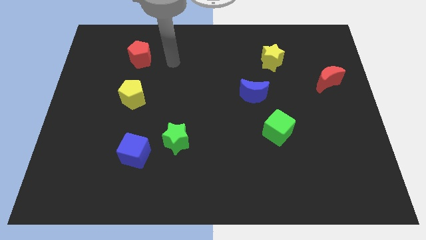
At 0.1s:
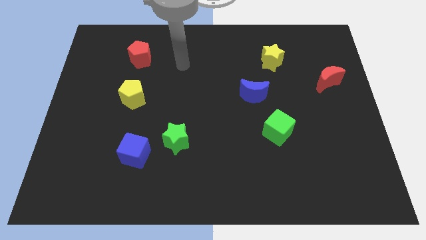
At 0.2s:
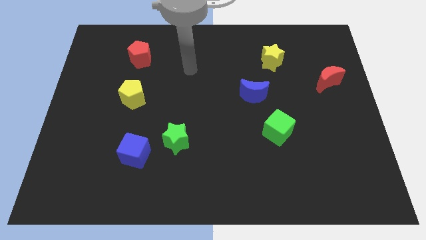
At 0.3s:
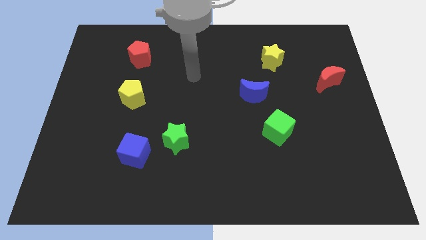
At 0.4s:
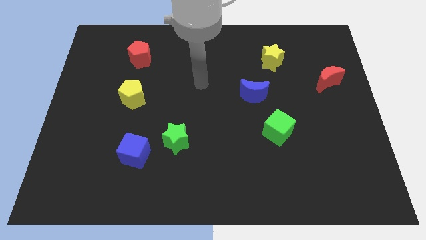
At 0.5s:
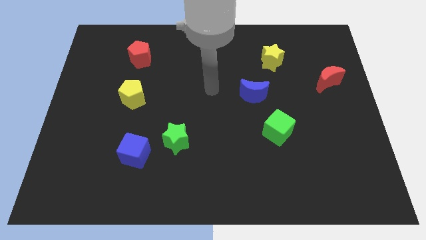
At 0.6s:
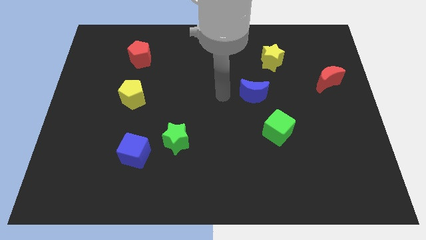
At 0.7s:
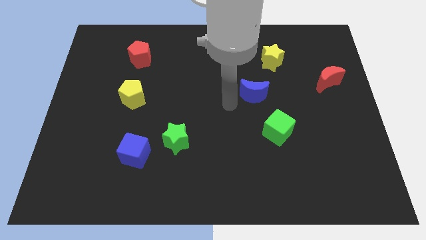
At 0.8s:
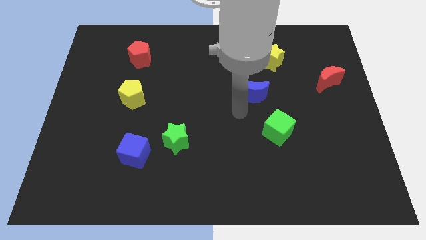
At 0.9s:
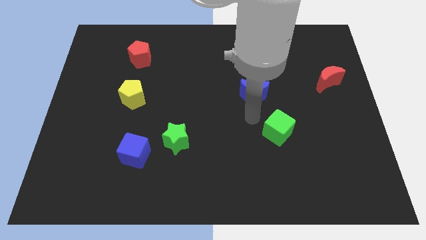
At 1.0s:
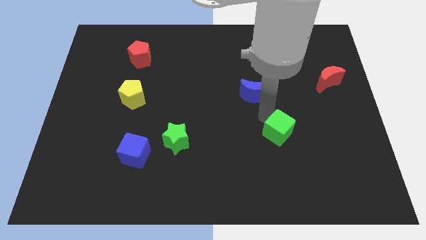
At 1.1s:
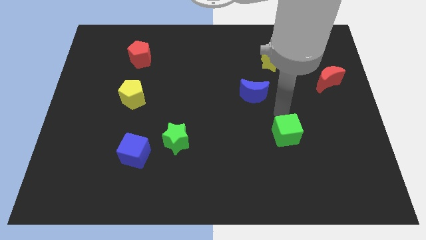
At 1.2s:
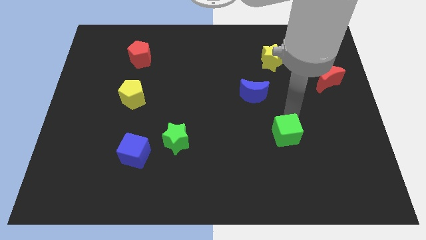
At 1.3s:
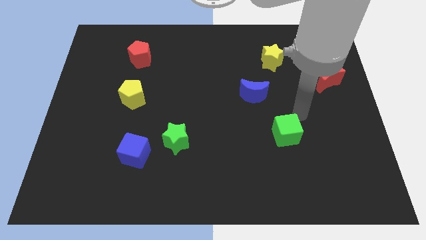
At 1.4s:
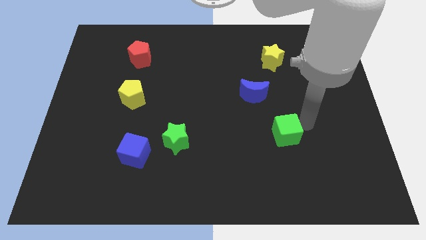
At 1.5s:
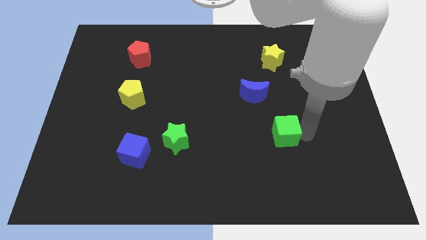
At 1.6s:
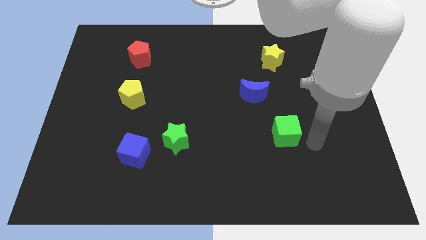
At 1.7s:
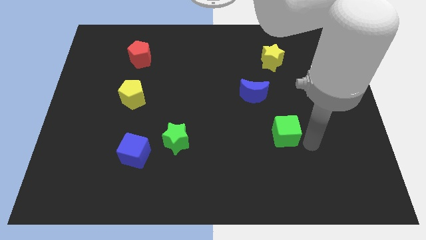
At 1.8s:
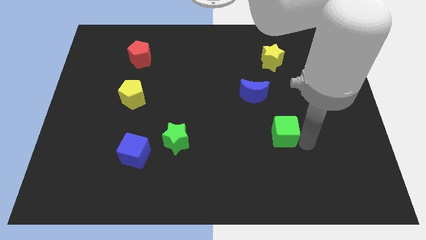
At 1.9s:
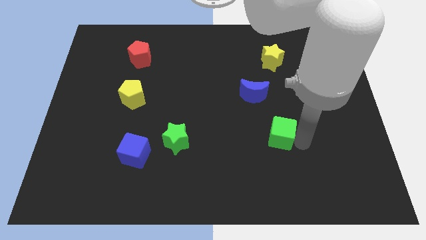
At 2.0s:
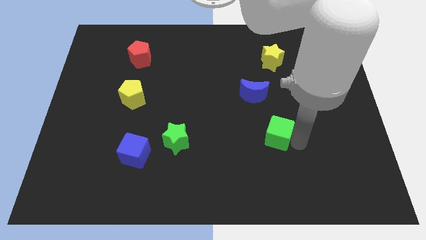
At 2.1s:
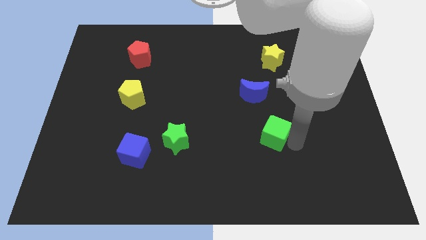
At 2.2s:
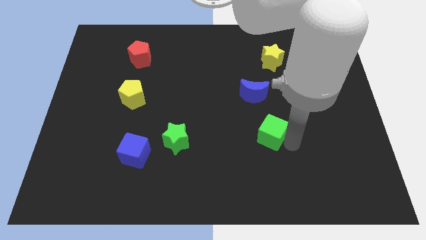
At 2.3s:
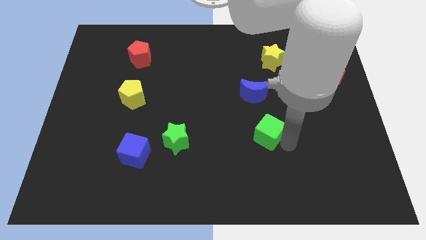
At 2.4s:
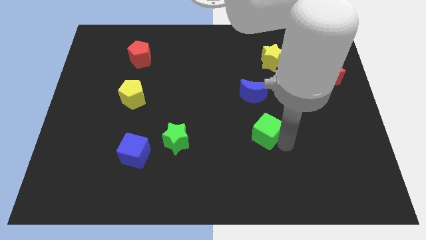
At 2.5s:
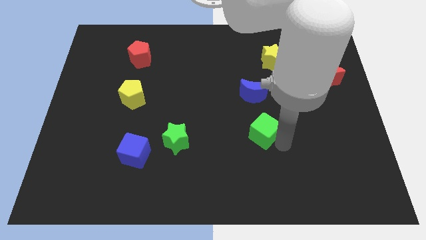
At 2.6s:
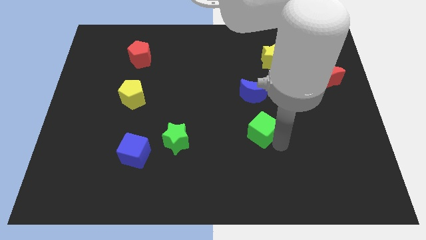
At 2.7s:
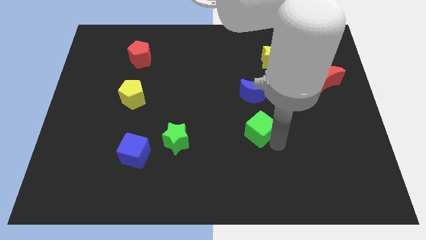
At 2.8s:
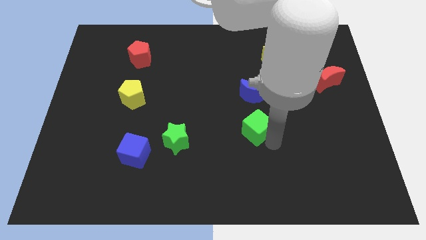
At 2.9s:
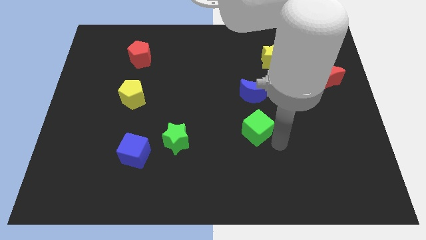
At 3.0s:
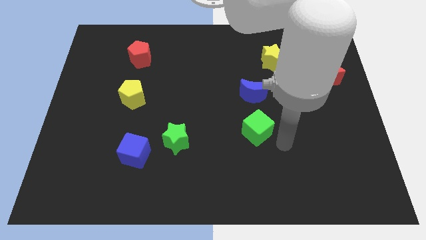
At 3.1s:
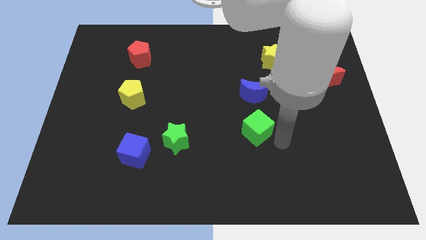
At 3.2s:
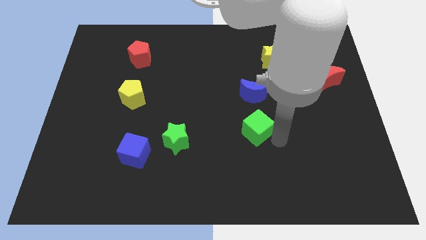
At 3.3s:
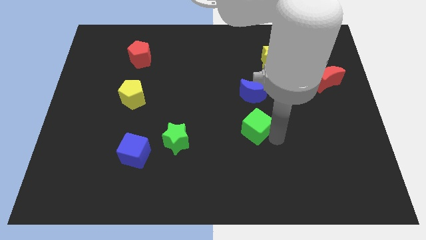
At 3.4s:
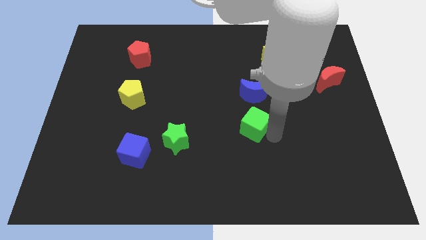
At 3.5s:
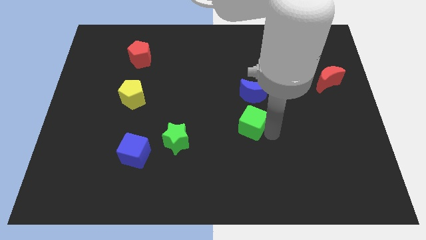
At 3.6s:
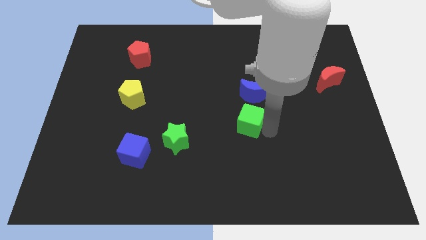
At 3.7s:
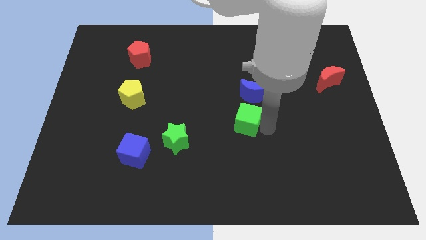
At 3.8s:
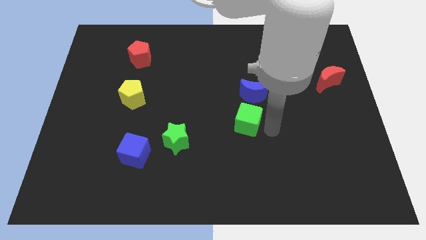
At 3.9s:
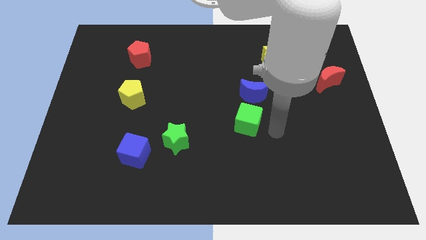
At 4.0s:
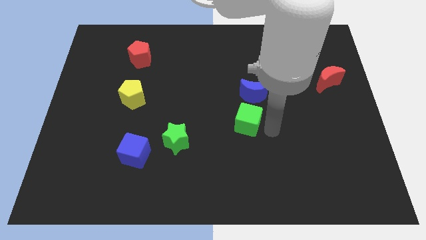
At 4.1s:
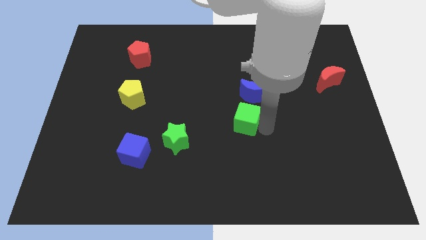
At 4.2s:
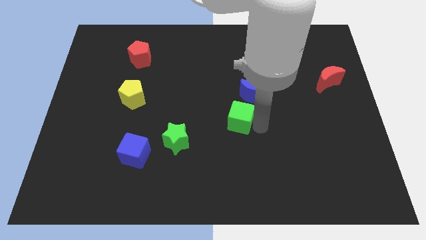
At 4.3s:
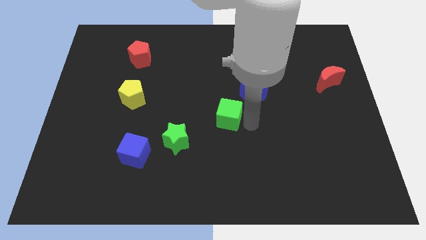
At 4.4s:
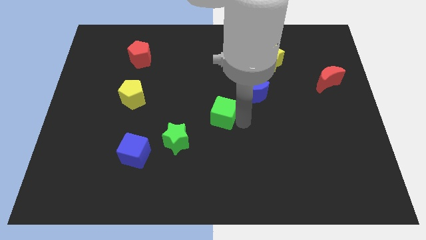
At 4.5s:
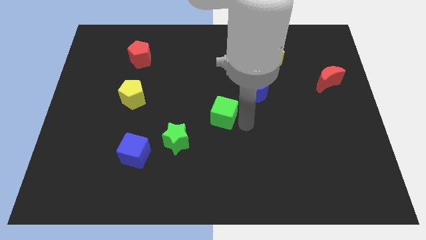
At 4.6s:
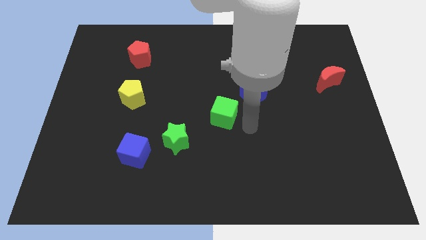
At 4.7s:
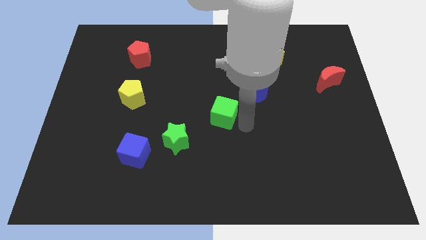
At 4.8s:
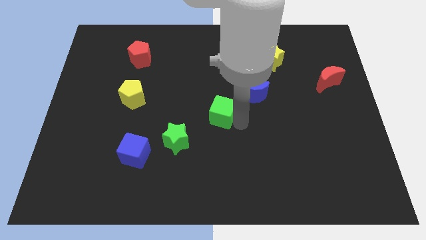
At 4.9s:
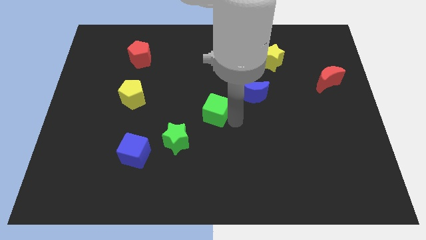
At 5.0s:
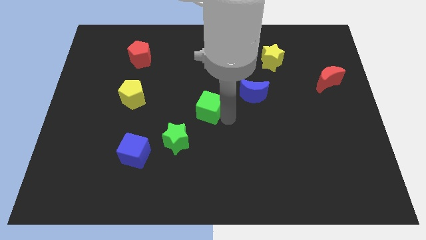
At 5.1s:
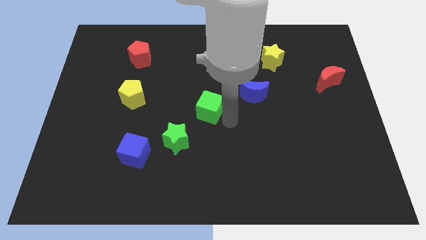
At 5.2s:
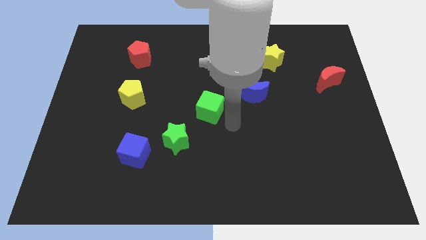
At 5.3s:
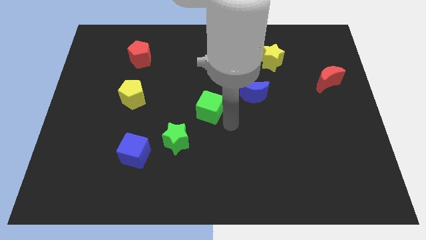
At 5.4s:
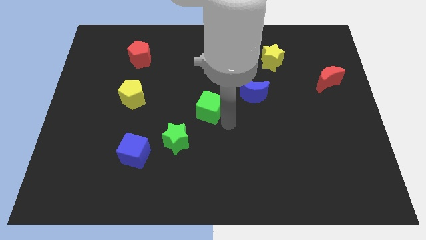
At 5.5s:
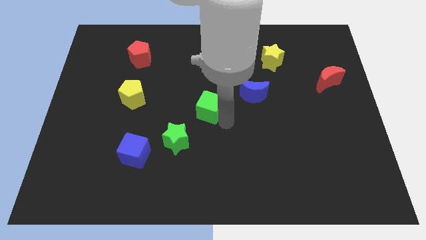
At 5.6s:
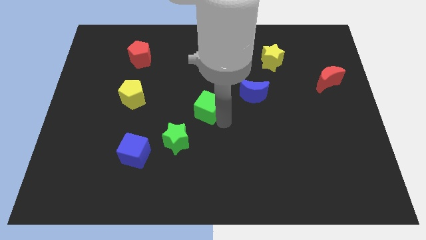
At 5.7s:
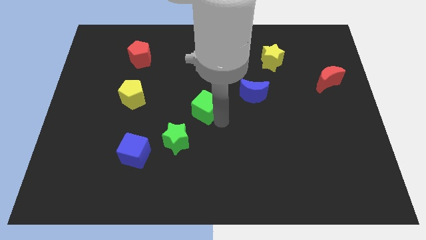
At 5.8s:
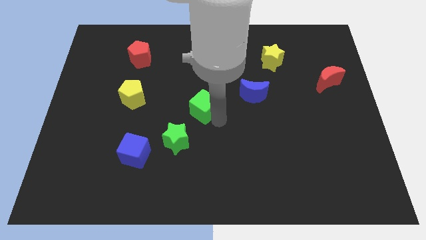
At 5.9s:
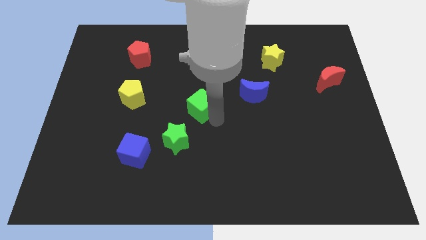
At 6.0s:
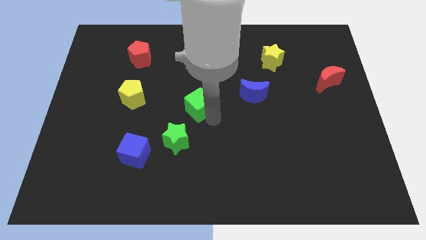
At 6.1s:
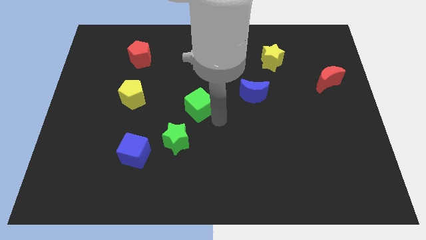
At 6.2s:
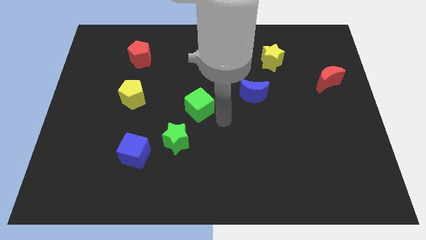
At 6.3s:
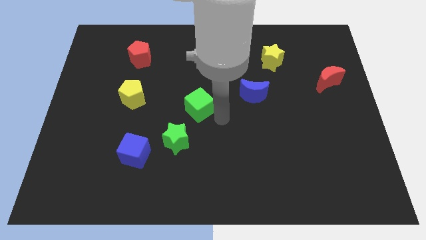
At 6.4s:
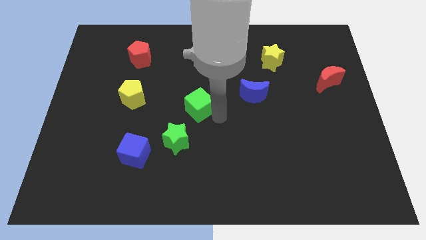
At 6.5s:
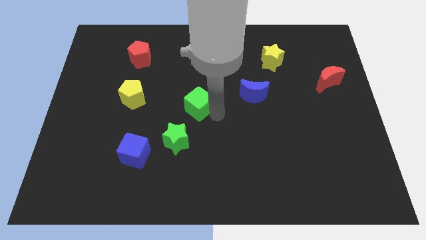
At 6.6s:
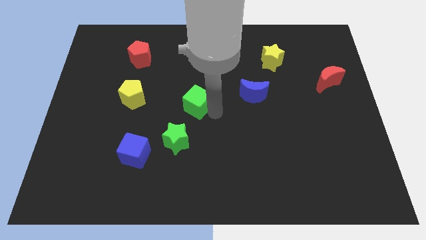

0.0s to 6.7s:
move the green cube right of the yellow pentagon

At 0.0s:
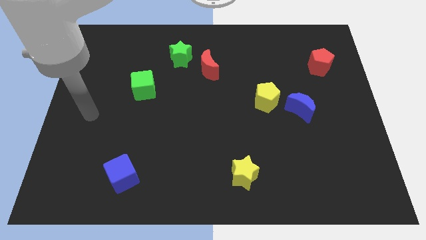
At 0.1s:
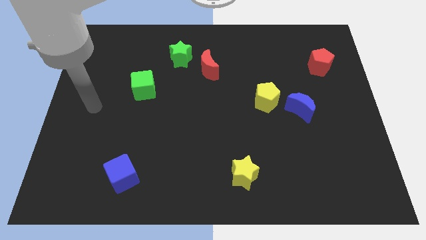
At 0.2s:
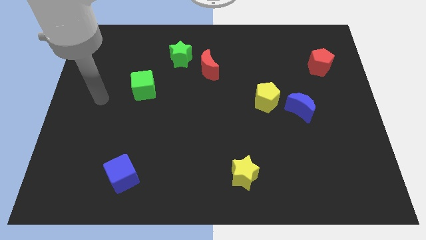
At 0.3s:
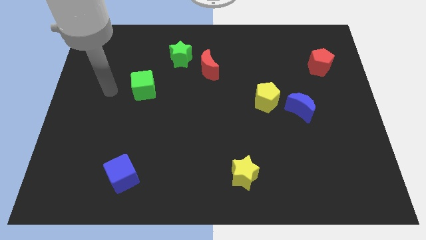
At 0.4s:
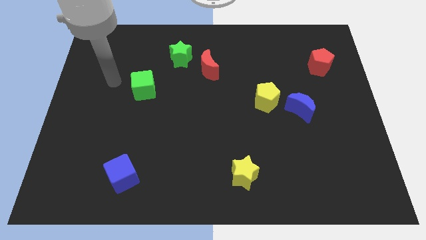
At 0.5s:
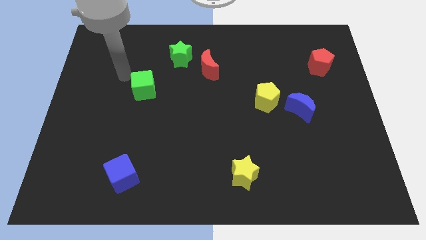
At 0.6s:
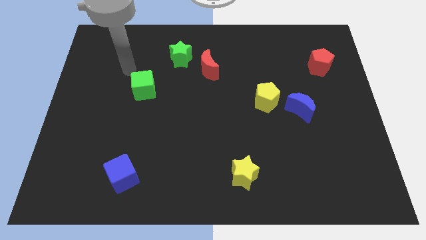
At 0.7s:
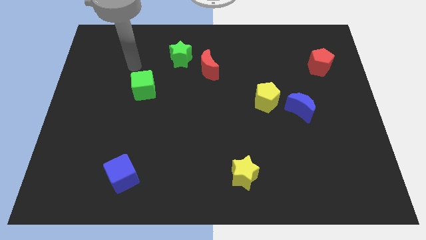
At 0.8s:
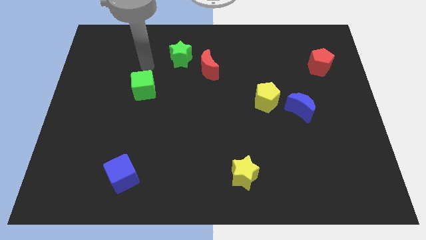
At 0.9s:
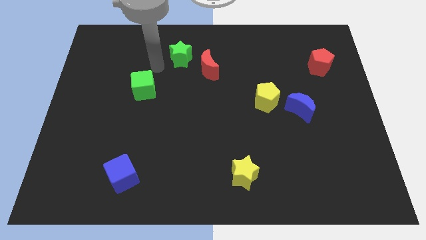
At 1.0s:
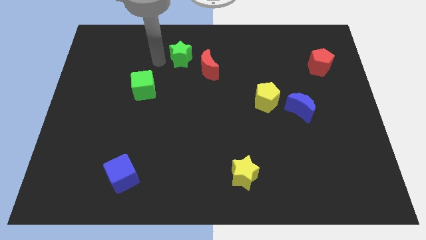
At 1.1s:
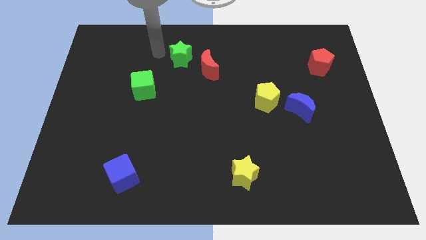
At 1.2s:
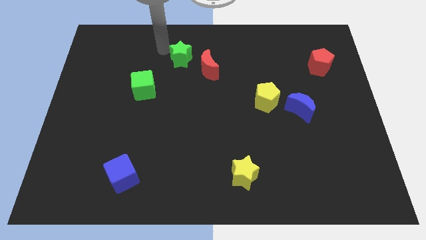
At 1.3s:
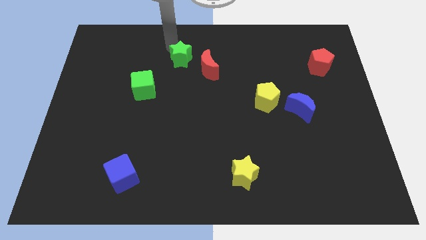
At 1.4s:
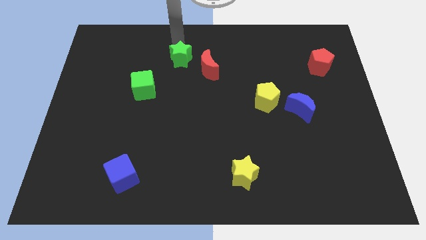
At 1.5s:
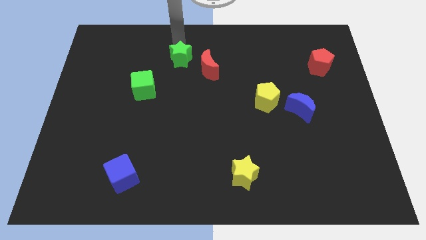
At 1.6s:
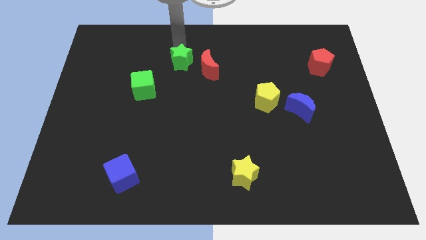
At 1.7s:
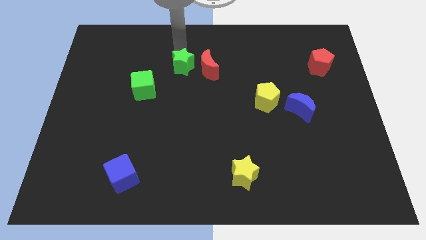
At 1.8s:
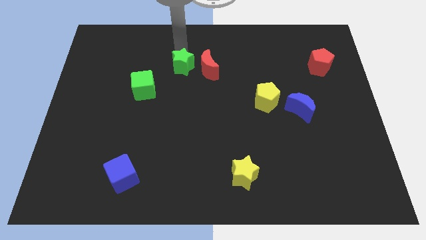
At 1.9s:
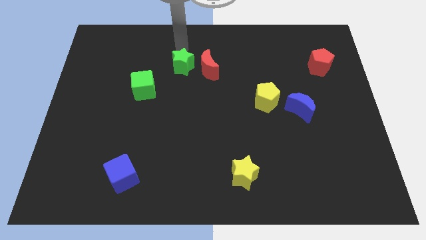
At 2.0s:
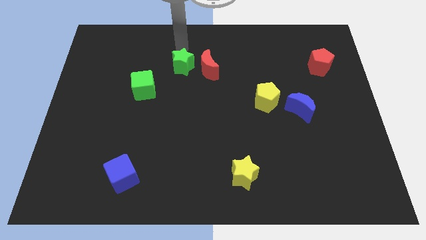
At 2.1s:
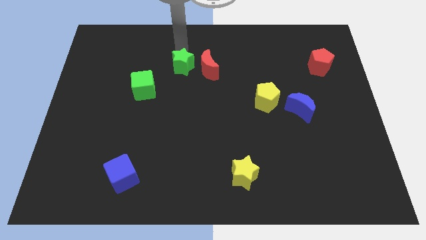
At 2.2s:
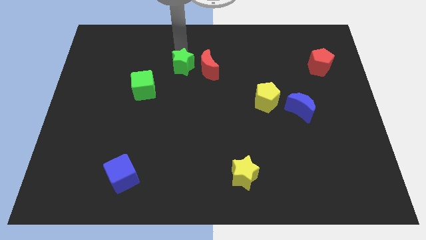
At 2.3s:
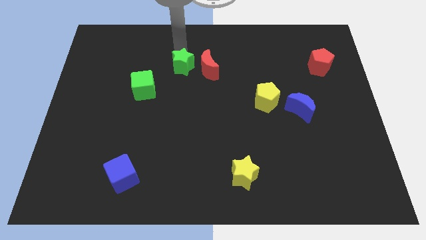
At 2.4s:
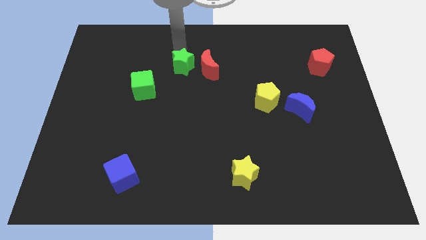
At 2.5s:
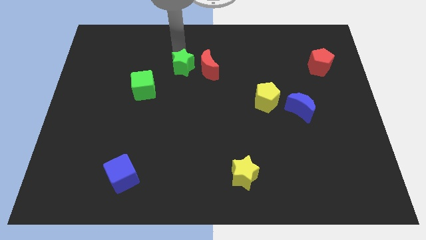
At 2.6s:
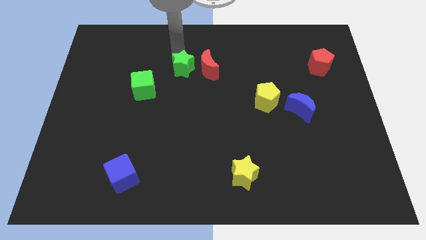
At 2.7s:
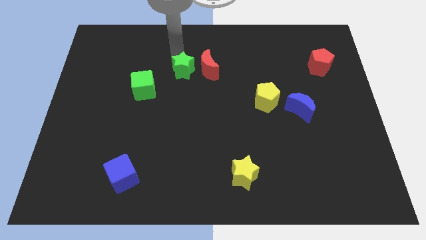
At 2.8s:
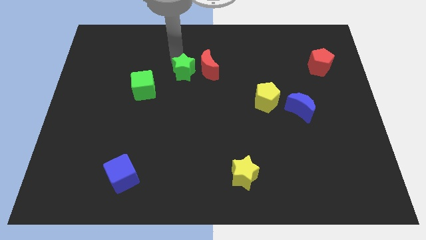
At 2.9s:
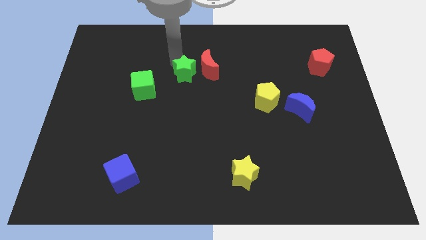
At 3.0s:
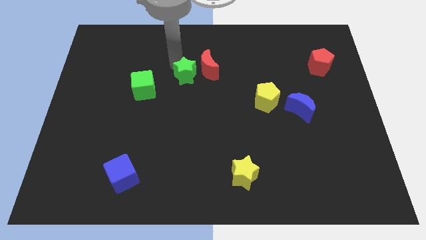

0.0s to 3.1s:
put the green star just right of the green cube
